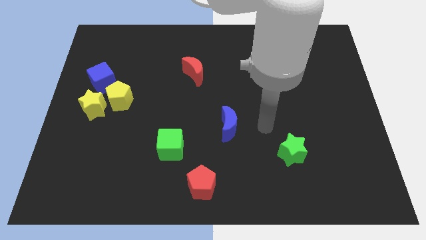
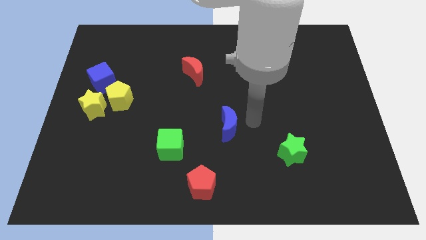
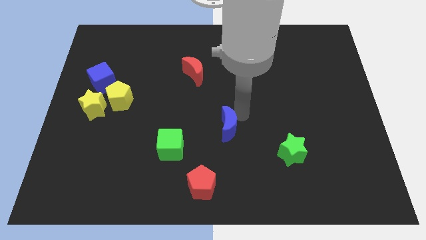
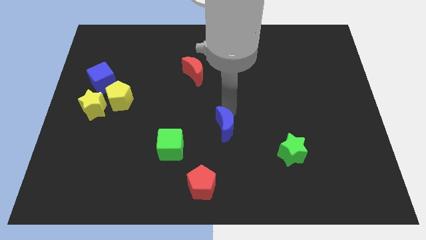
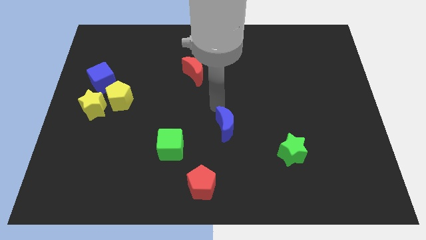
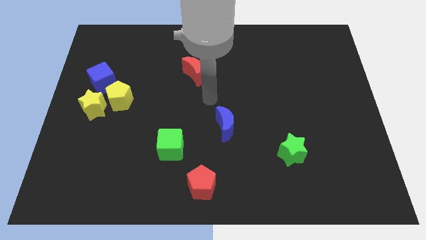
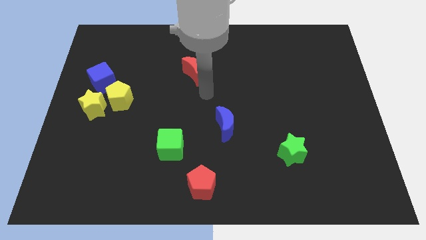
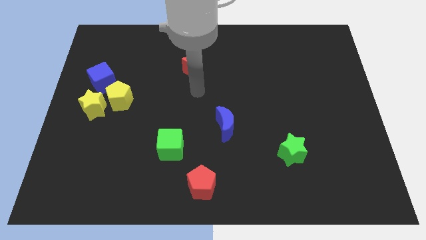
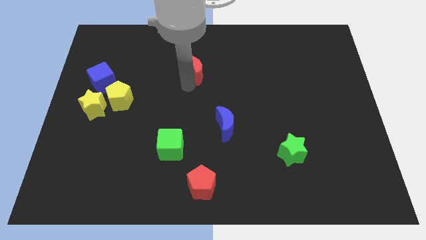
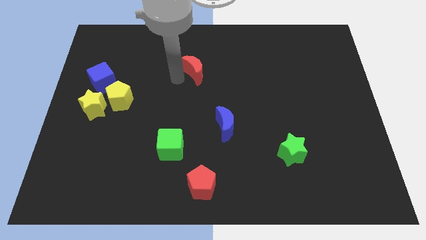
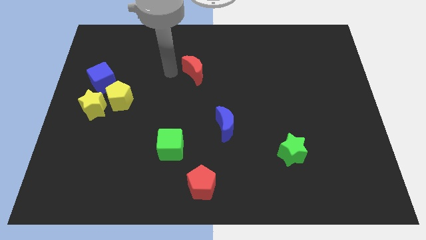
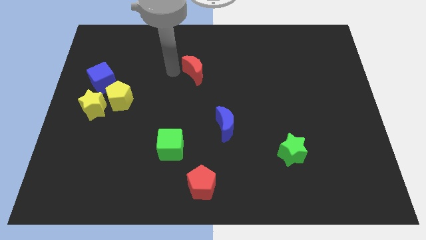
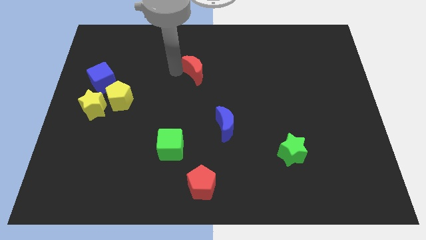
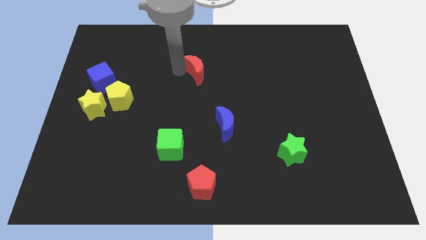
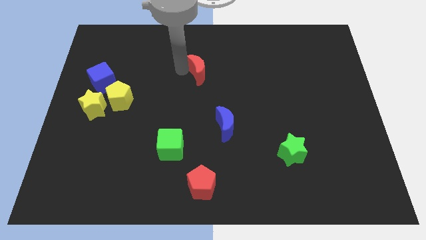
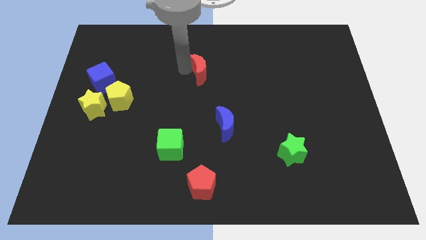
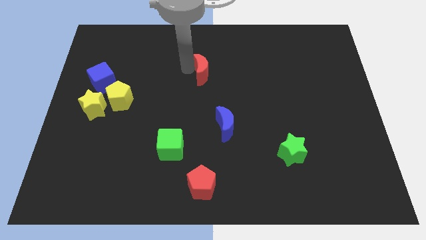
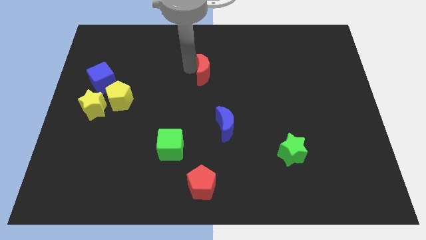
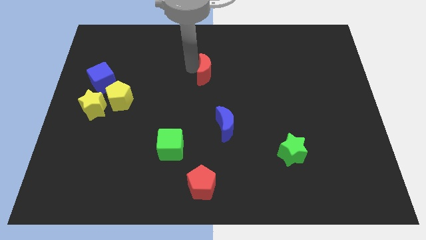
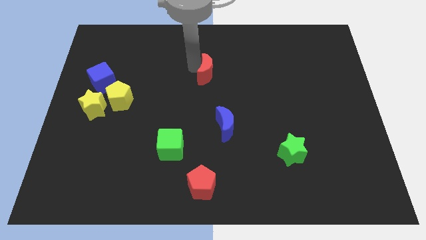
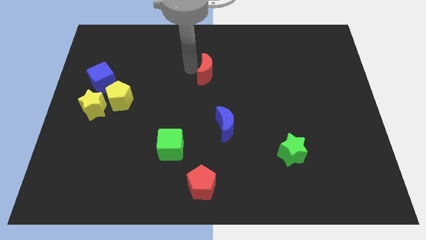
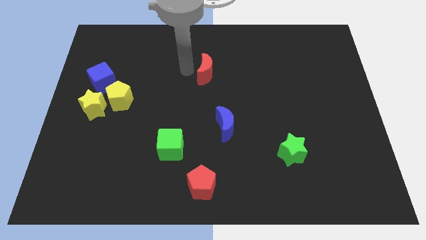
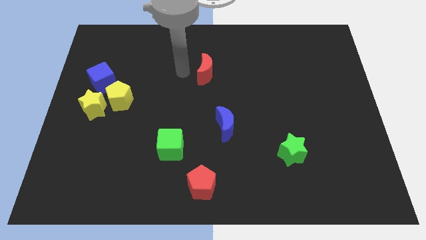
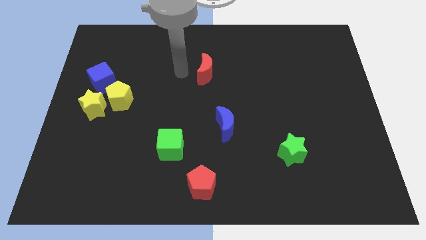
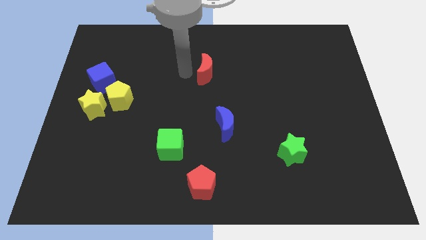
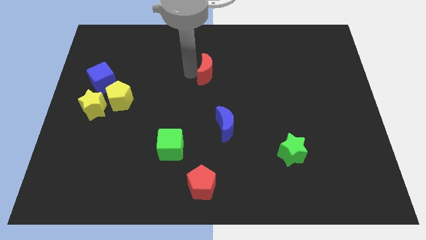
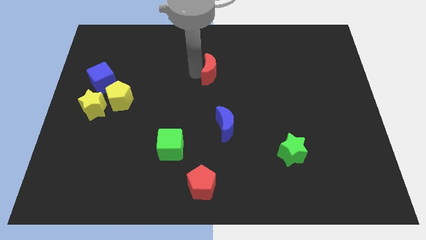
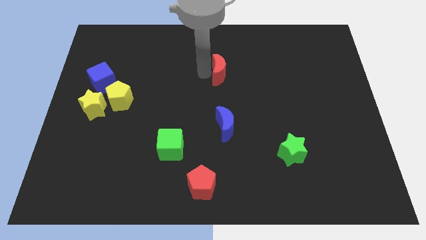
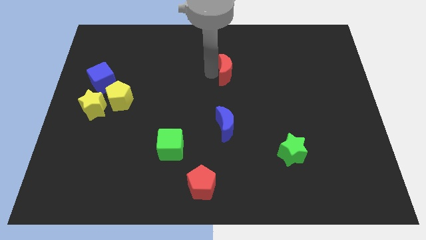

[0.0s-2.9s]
slightly slide the red moon to the right

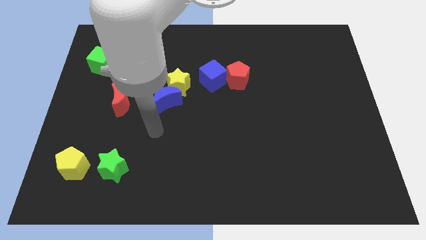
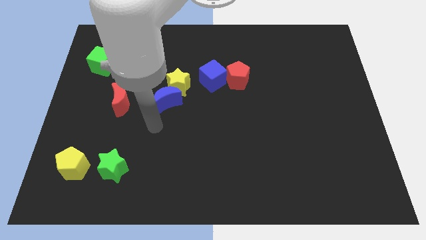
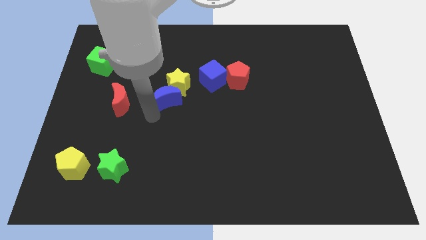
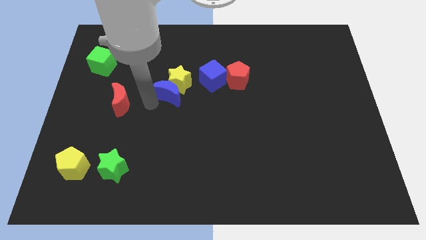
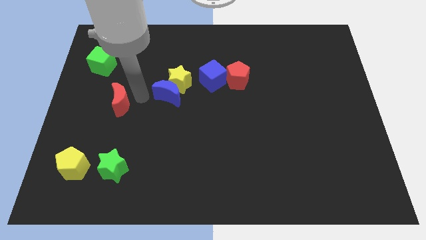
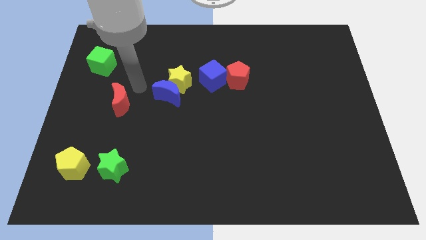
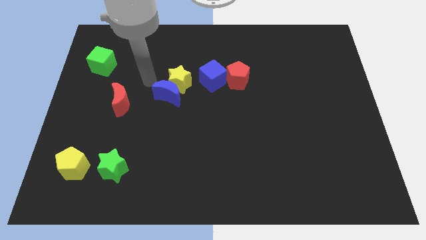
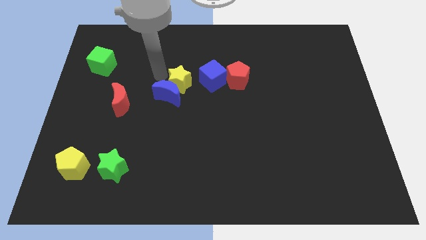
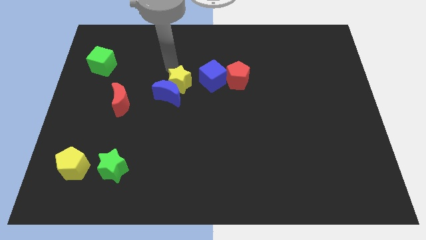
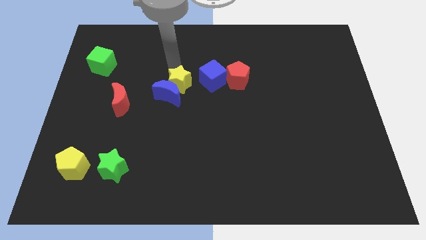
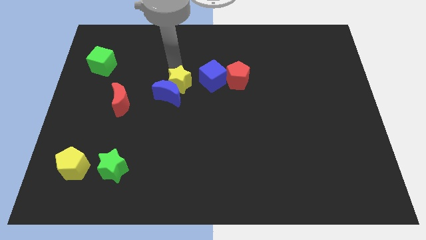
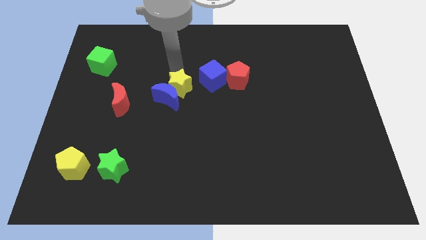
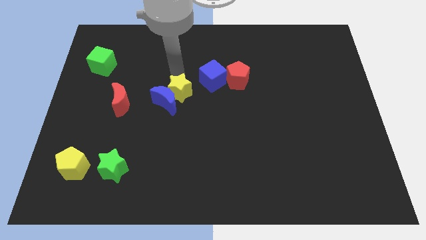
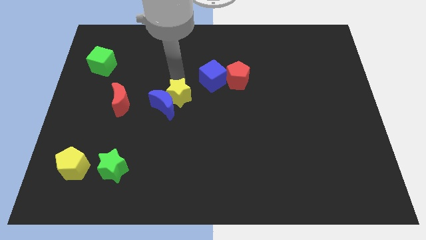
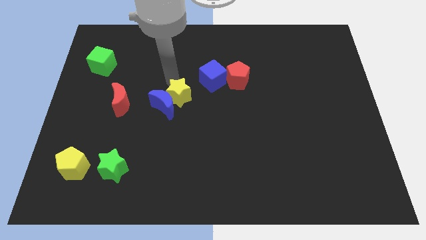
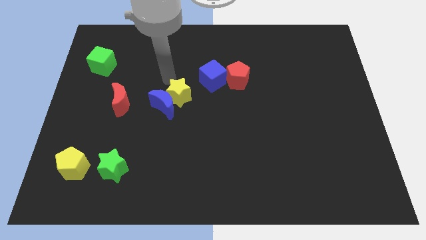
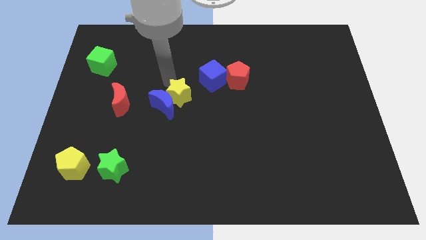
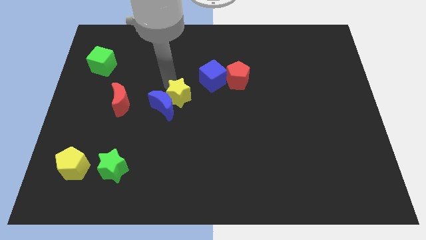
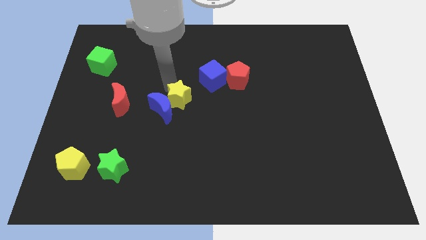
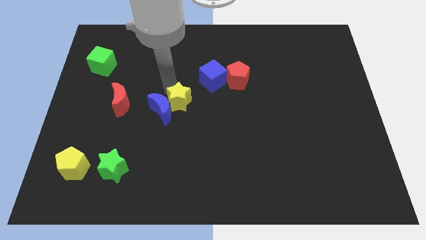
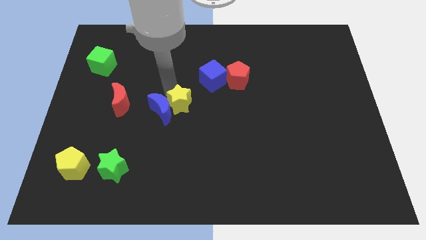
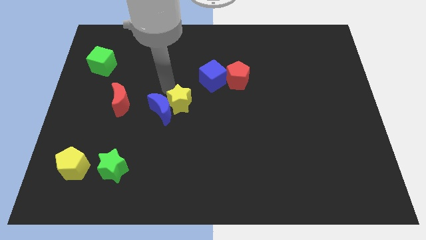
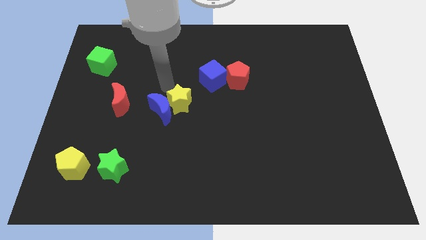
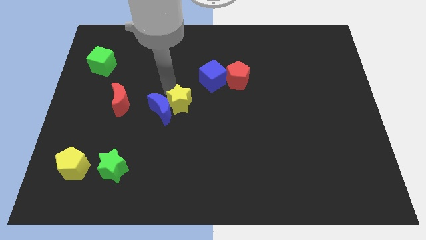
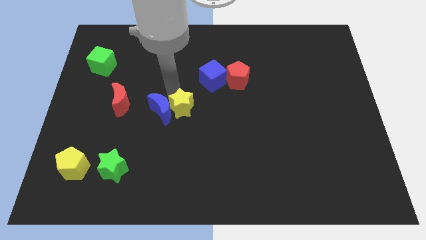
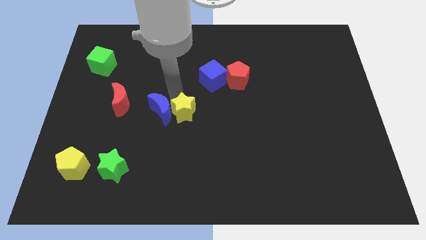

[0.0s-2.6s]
slide the yellow star slightly down

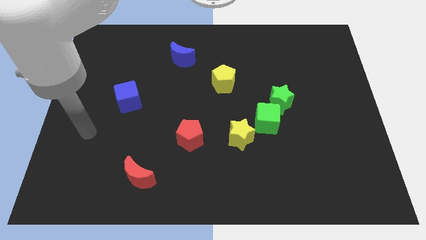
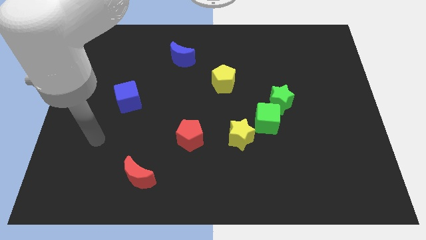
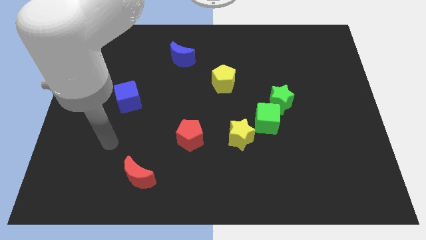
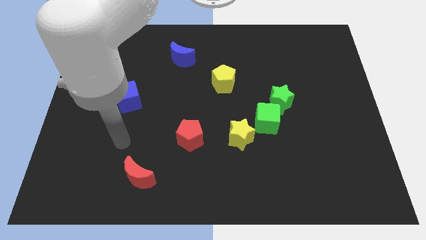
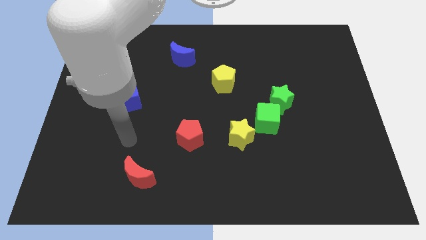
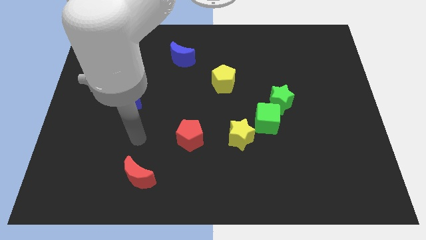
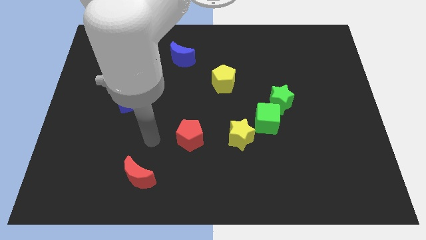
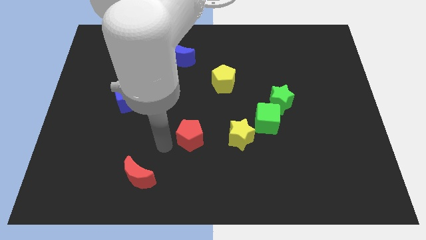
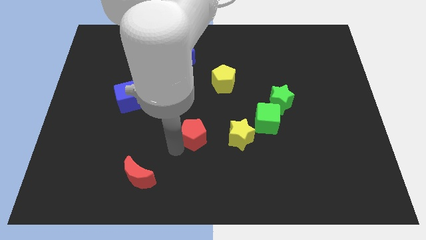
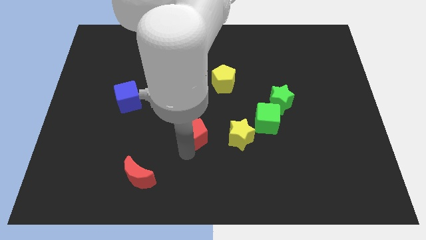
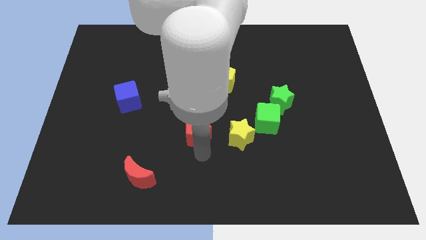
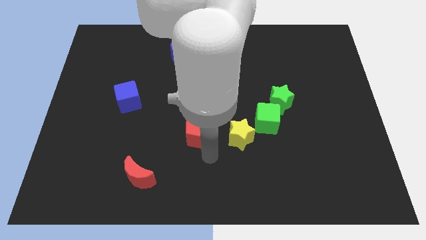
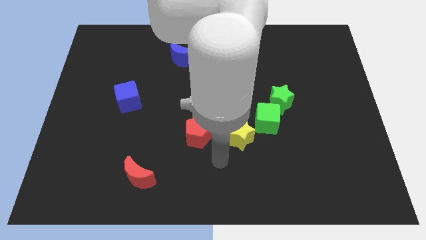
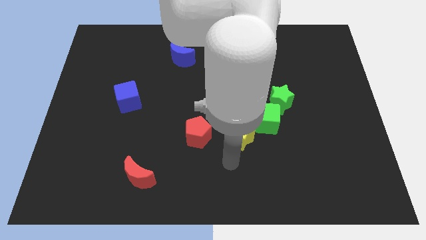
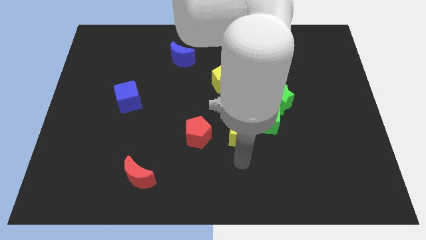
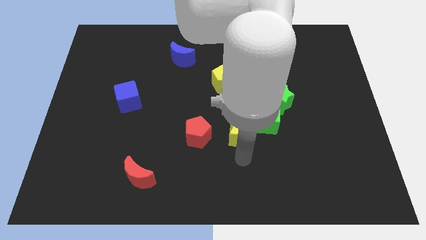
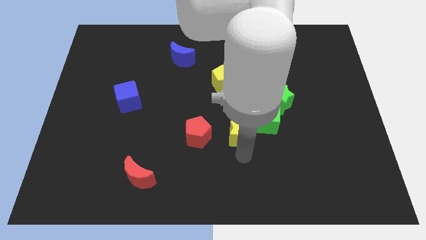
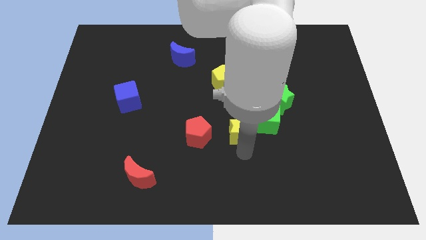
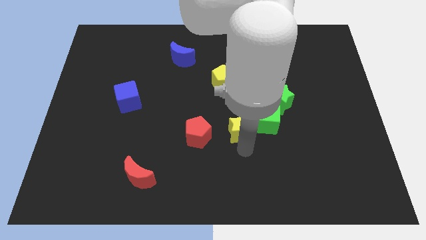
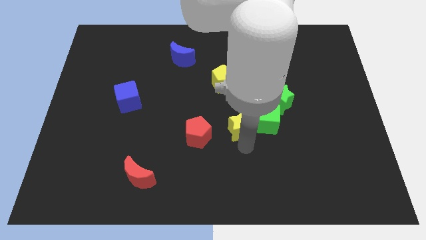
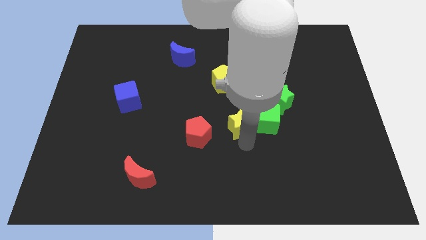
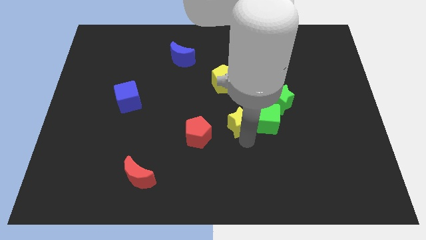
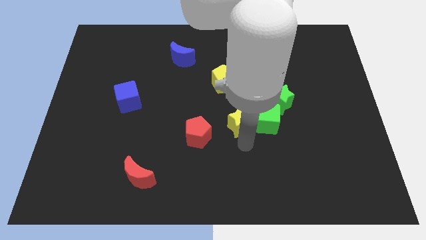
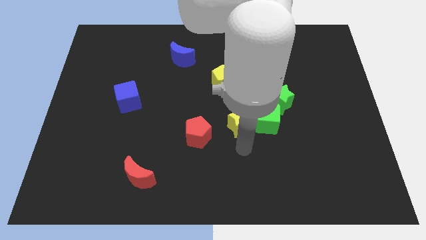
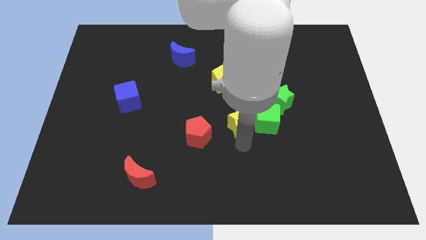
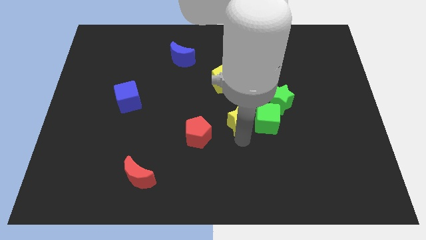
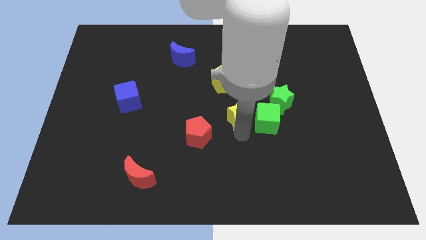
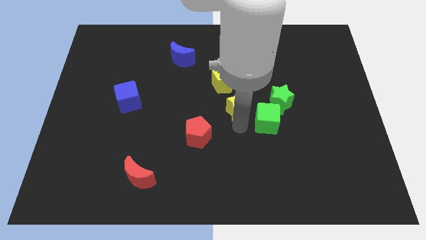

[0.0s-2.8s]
move the yellow star up slightly
